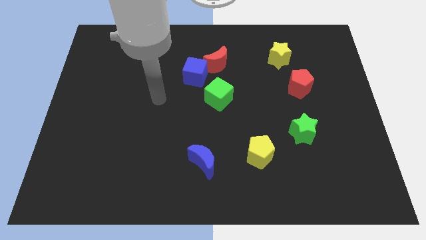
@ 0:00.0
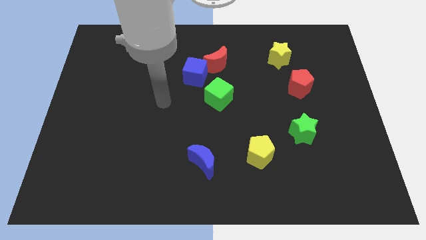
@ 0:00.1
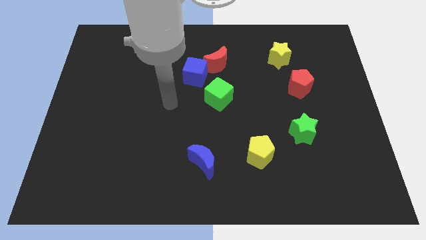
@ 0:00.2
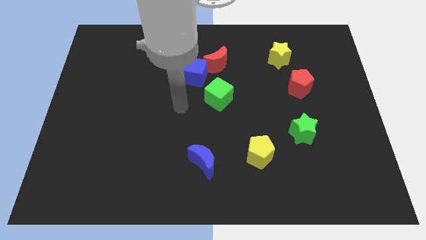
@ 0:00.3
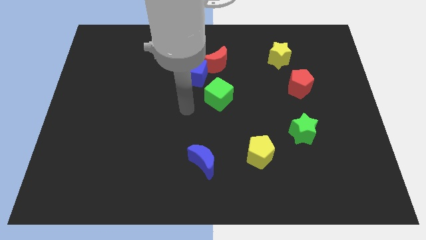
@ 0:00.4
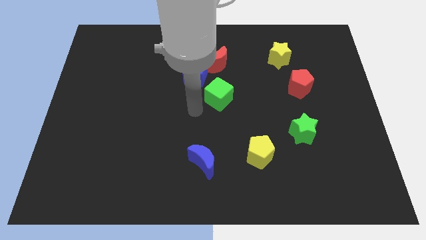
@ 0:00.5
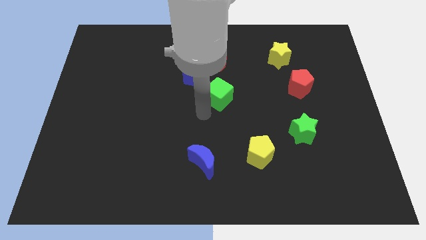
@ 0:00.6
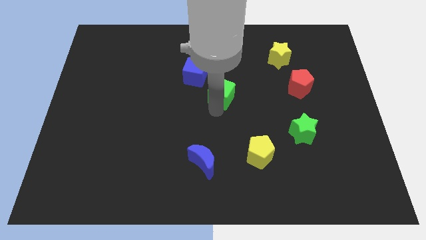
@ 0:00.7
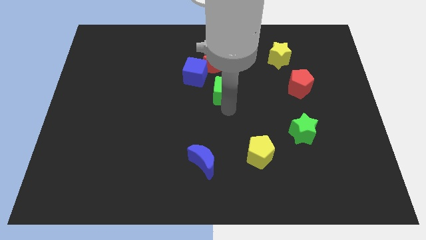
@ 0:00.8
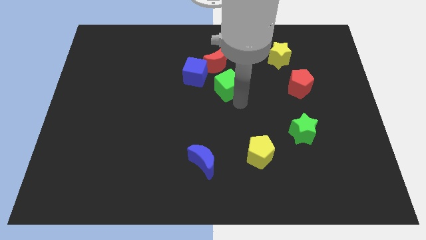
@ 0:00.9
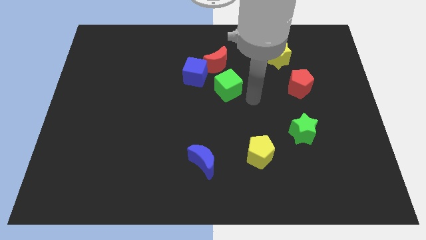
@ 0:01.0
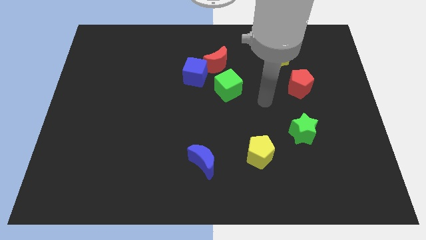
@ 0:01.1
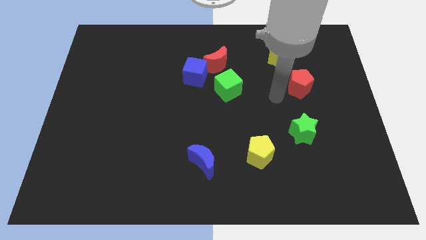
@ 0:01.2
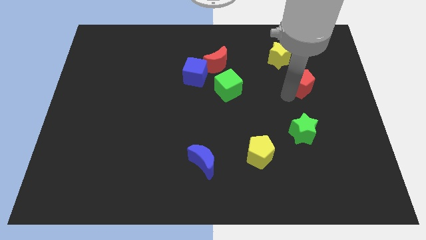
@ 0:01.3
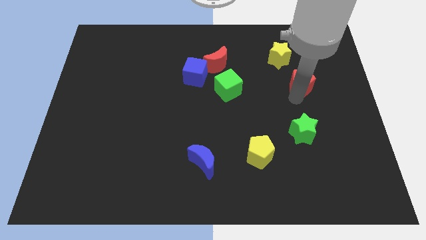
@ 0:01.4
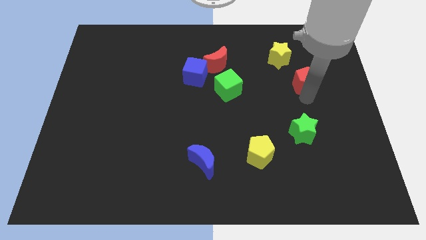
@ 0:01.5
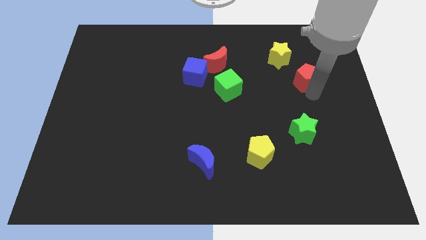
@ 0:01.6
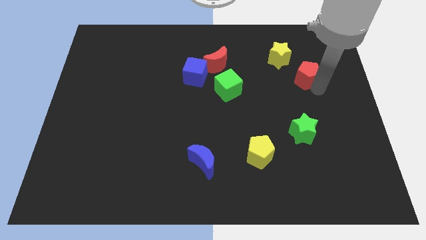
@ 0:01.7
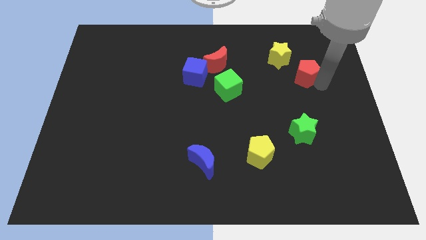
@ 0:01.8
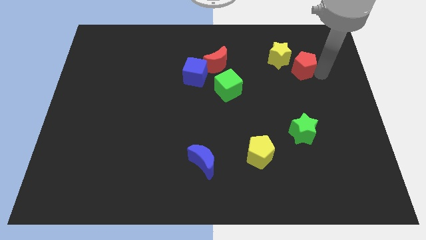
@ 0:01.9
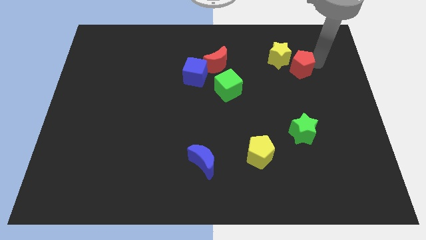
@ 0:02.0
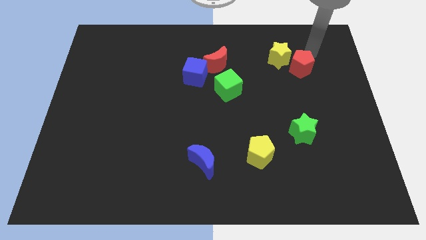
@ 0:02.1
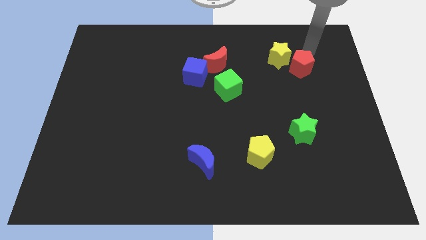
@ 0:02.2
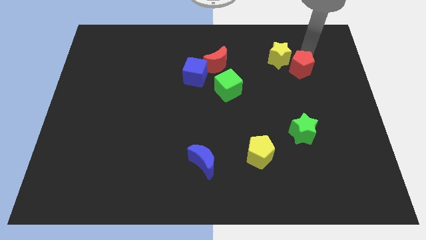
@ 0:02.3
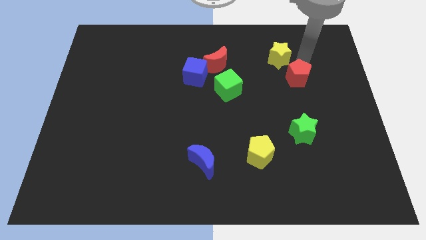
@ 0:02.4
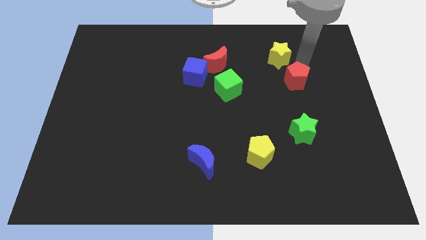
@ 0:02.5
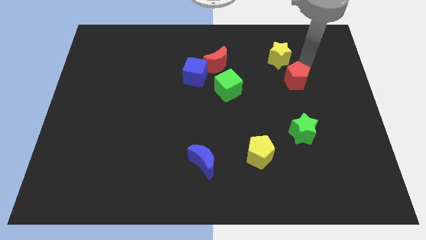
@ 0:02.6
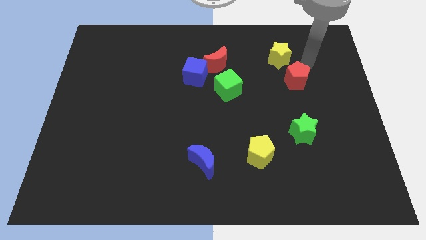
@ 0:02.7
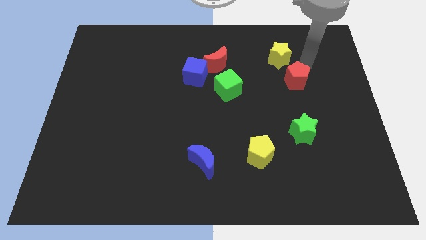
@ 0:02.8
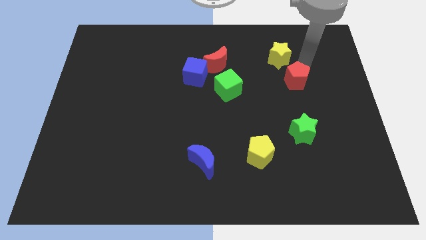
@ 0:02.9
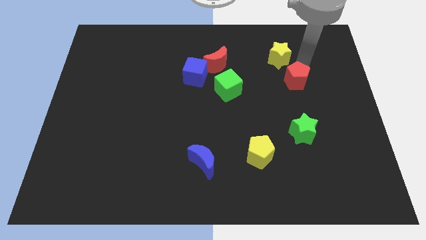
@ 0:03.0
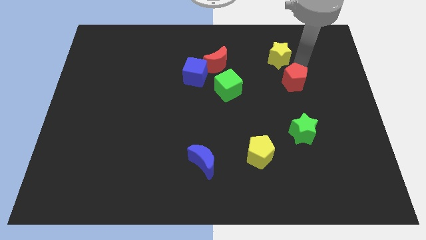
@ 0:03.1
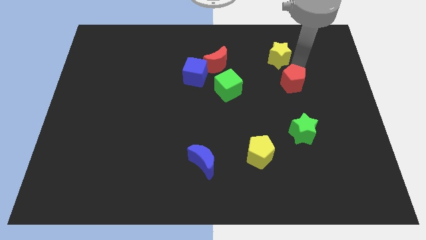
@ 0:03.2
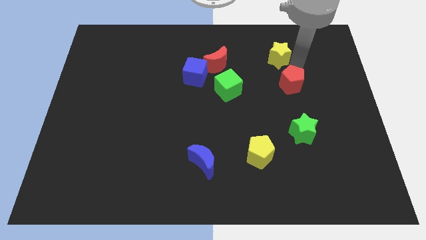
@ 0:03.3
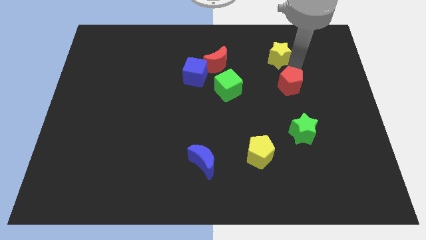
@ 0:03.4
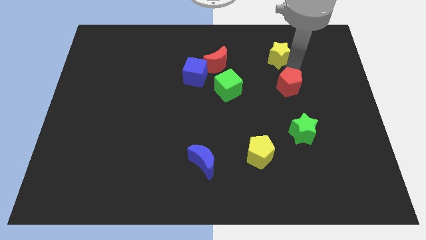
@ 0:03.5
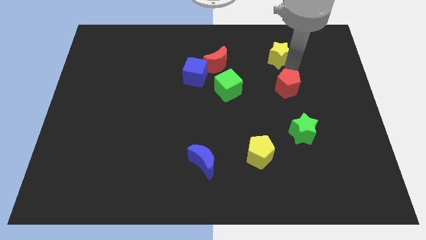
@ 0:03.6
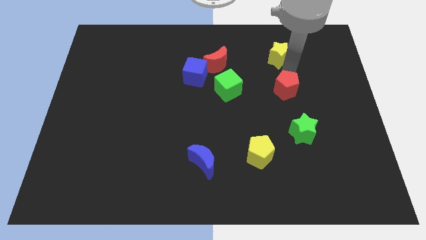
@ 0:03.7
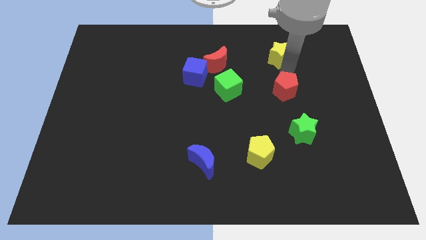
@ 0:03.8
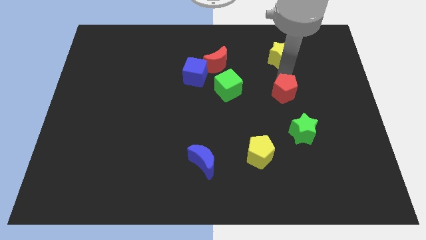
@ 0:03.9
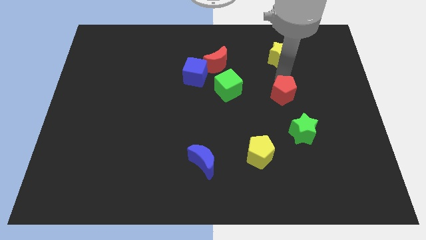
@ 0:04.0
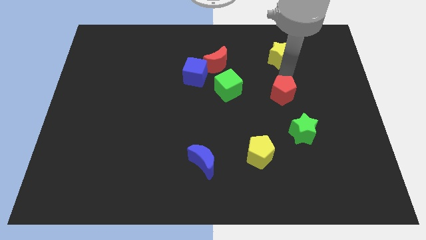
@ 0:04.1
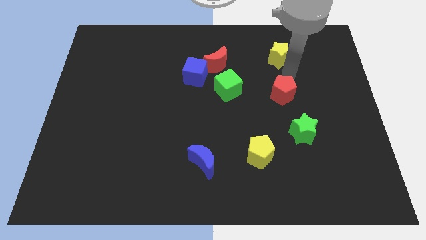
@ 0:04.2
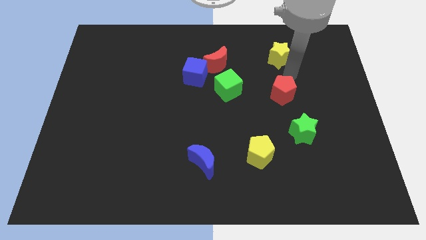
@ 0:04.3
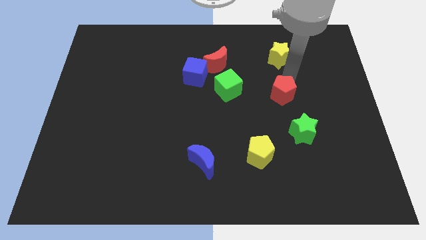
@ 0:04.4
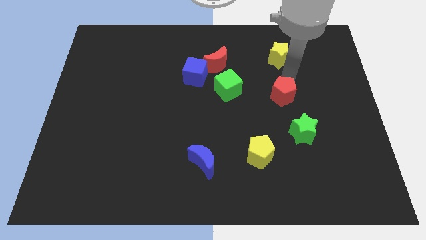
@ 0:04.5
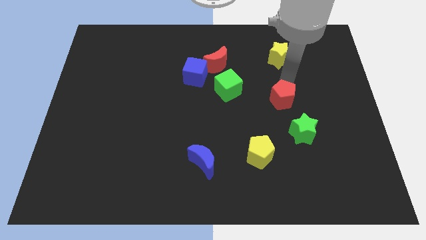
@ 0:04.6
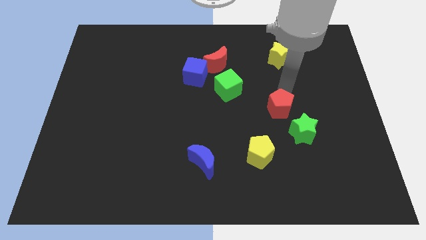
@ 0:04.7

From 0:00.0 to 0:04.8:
slide the red pentagon slightly down and then left

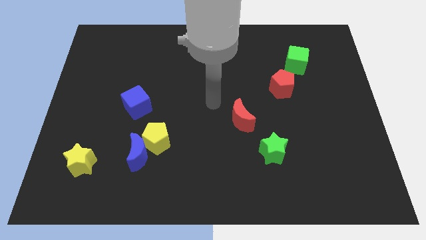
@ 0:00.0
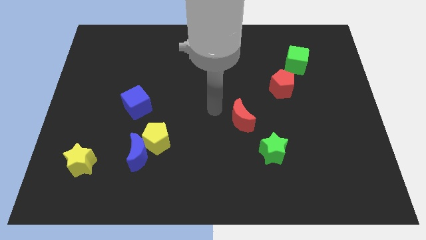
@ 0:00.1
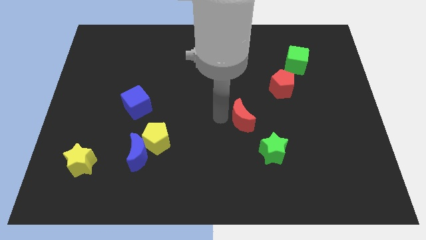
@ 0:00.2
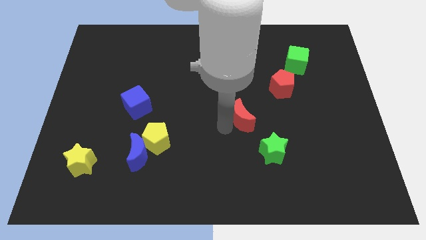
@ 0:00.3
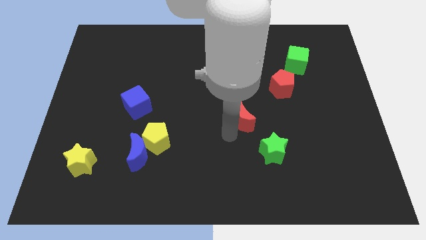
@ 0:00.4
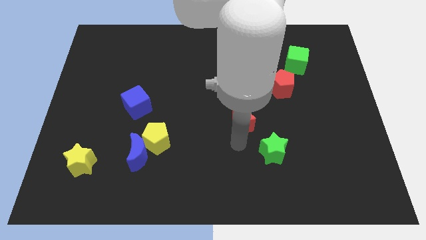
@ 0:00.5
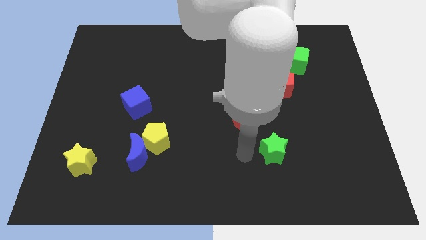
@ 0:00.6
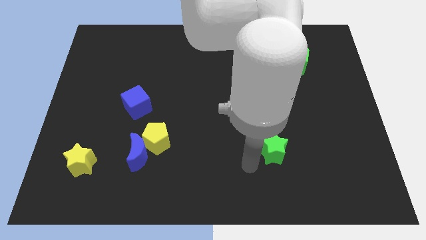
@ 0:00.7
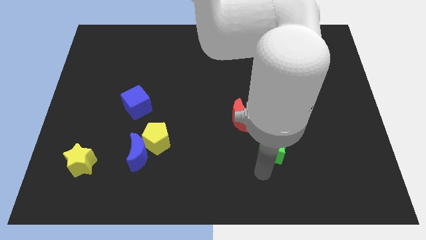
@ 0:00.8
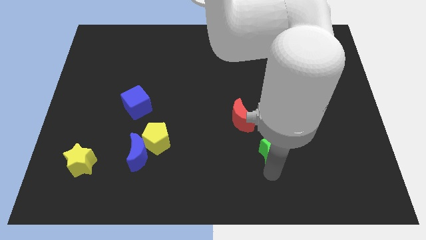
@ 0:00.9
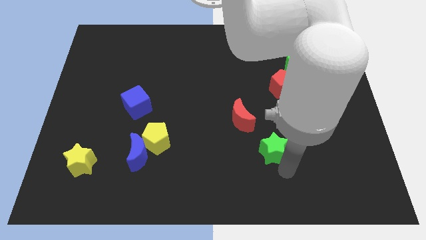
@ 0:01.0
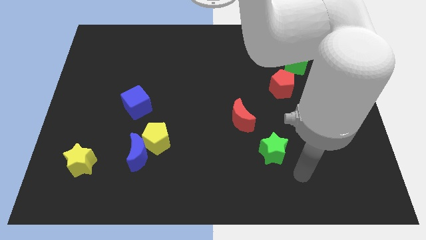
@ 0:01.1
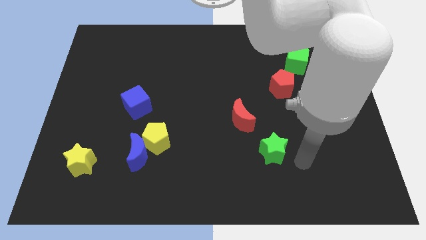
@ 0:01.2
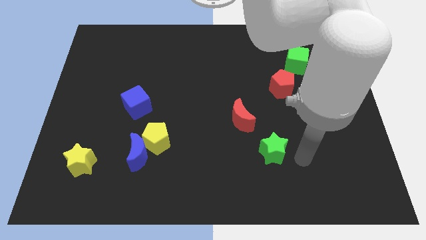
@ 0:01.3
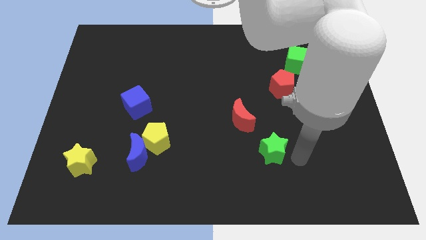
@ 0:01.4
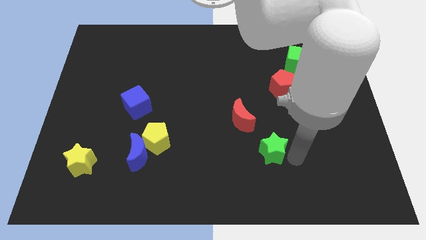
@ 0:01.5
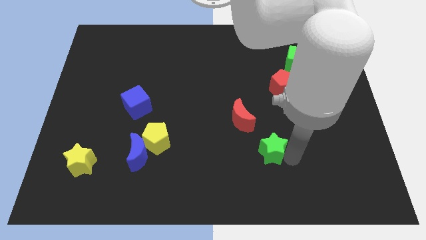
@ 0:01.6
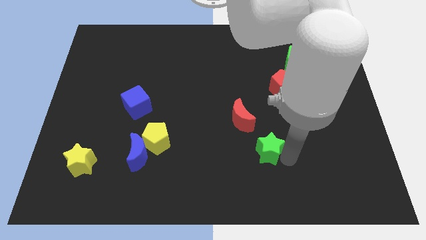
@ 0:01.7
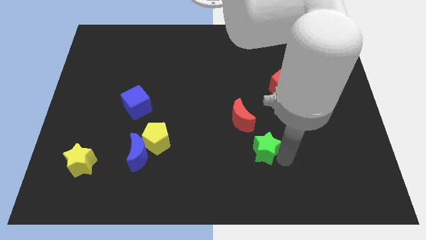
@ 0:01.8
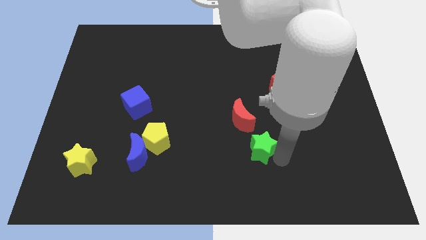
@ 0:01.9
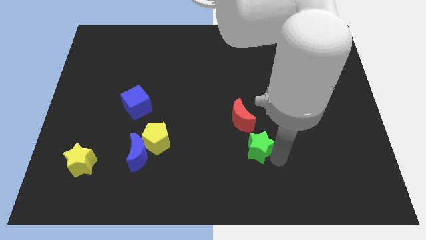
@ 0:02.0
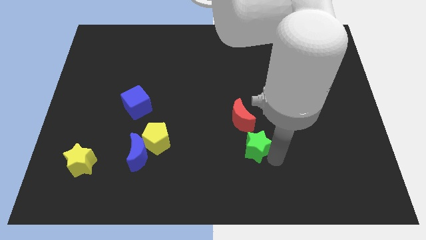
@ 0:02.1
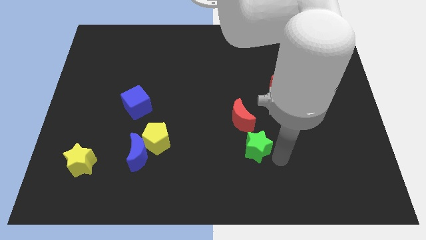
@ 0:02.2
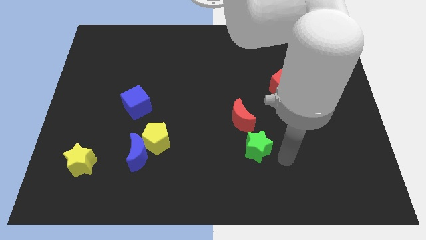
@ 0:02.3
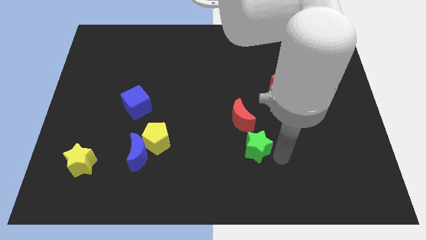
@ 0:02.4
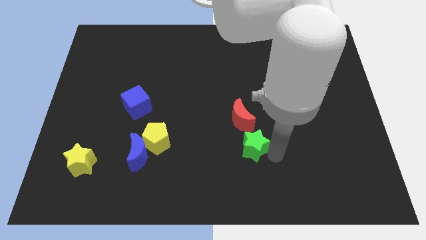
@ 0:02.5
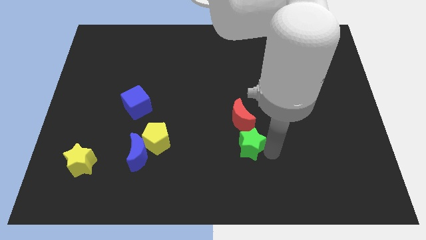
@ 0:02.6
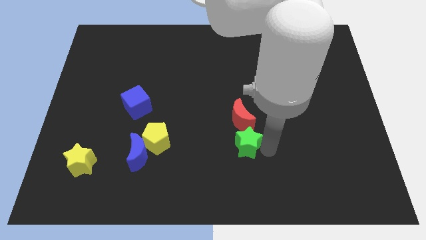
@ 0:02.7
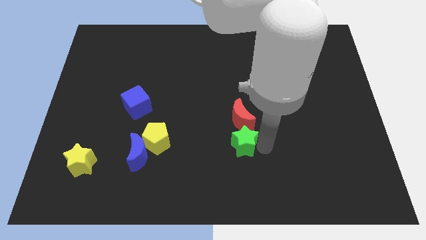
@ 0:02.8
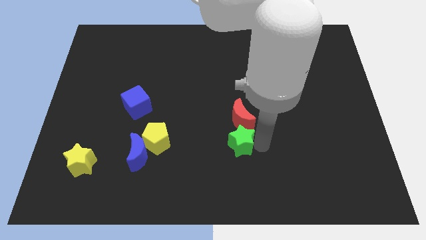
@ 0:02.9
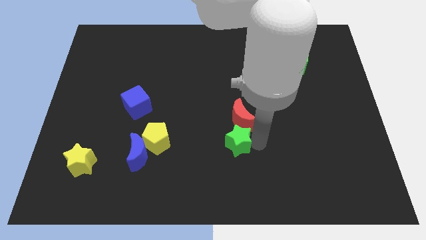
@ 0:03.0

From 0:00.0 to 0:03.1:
slightly push the green star left

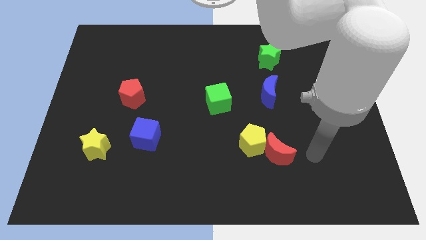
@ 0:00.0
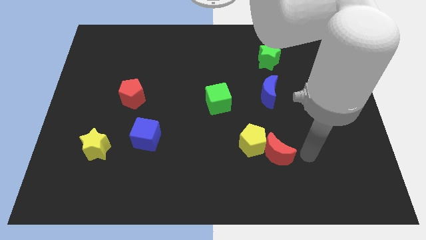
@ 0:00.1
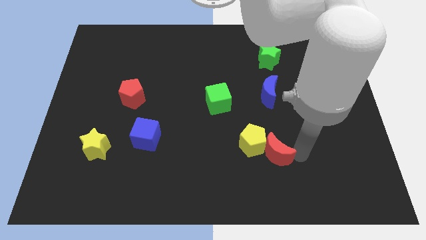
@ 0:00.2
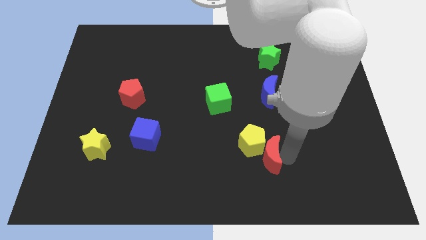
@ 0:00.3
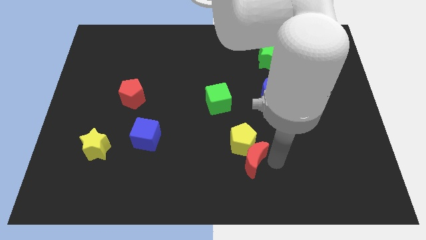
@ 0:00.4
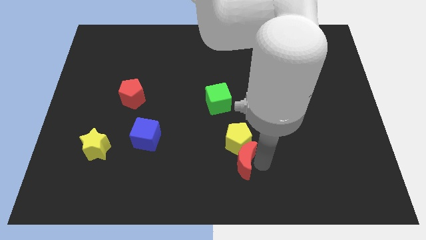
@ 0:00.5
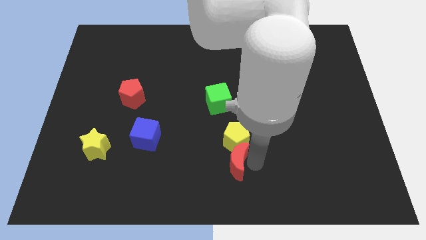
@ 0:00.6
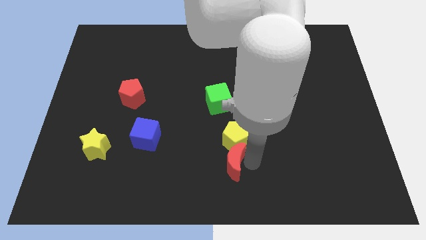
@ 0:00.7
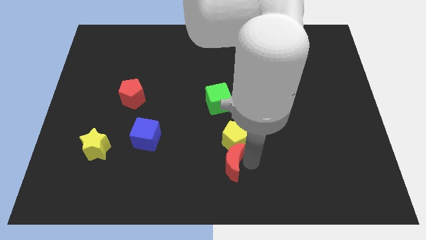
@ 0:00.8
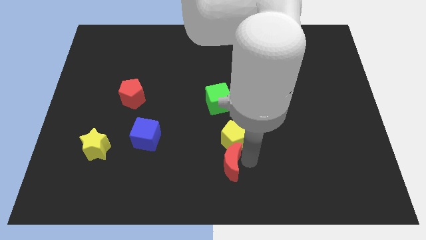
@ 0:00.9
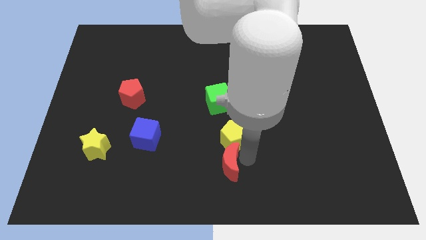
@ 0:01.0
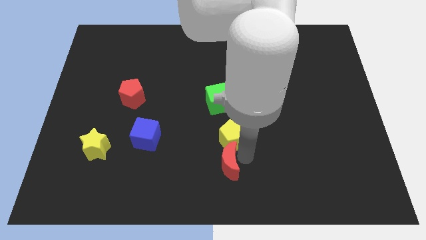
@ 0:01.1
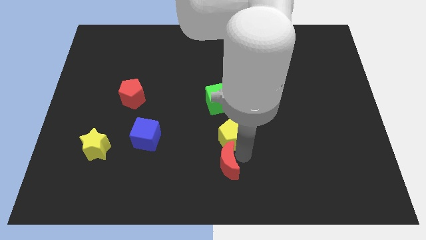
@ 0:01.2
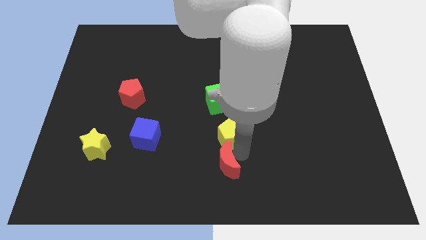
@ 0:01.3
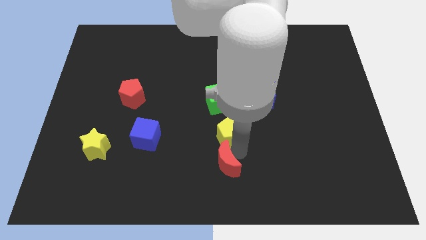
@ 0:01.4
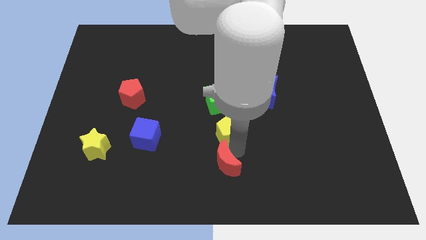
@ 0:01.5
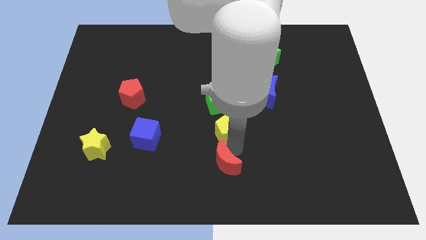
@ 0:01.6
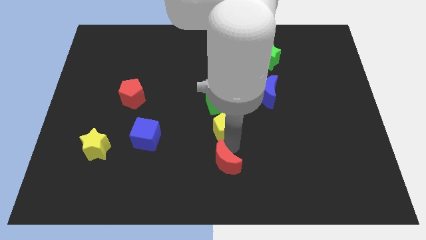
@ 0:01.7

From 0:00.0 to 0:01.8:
slightly push the yellow pentagon upwards and left diagonally
